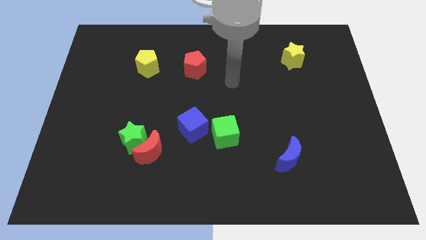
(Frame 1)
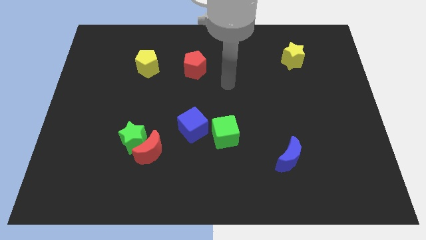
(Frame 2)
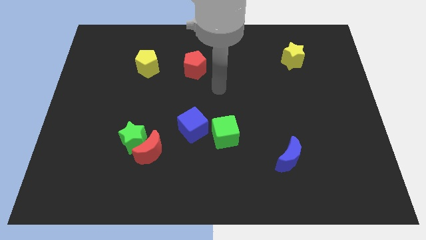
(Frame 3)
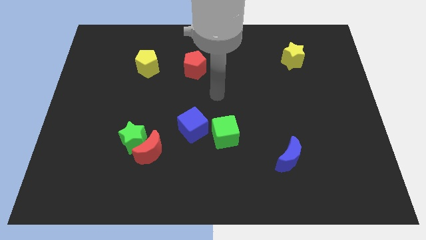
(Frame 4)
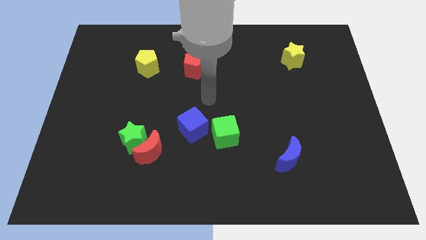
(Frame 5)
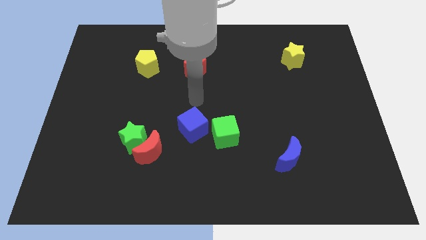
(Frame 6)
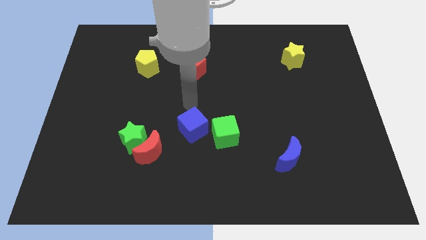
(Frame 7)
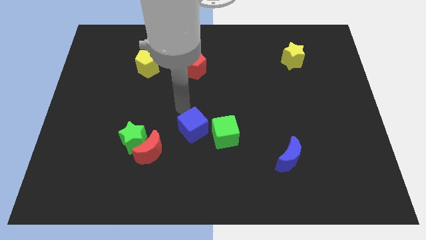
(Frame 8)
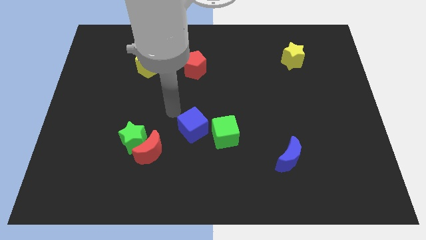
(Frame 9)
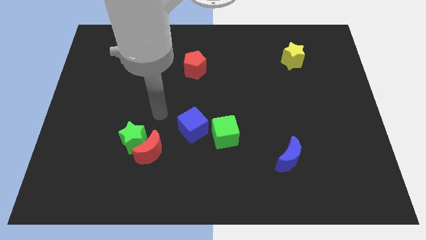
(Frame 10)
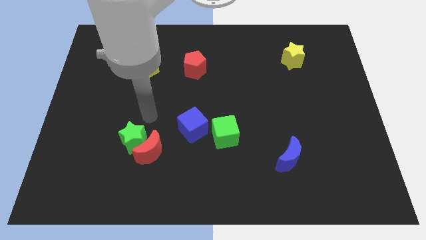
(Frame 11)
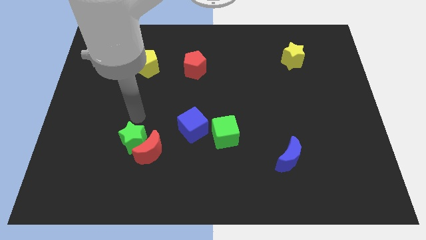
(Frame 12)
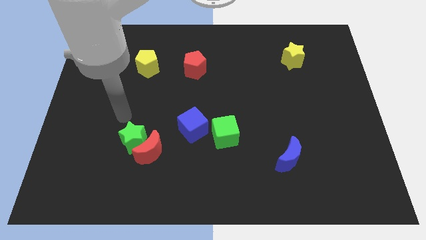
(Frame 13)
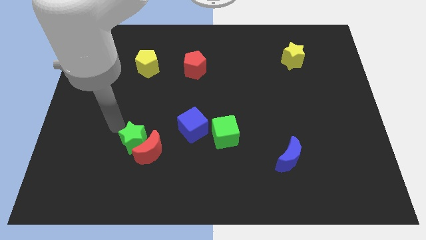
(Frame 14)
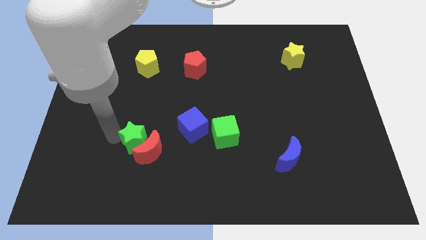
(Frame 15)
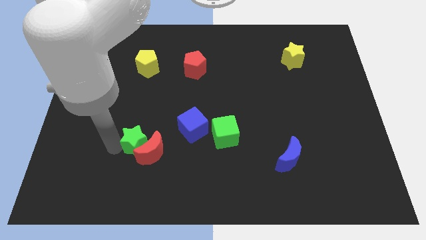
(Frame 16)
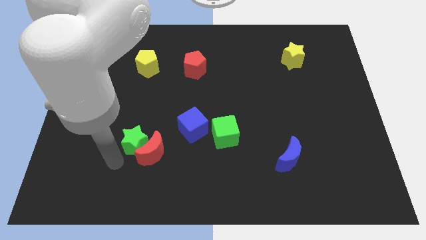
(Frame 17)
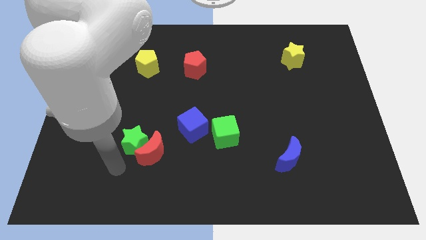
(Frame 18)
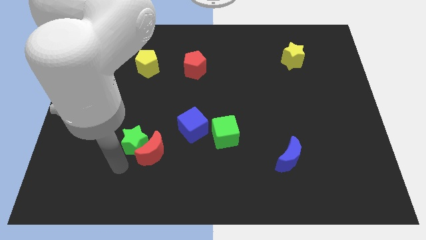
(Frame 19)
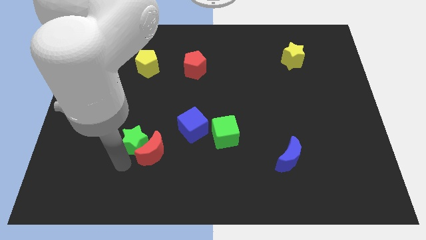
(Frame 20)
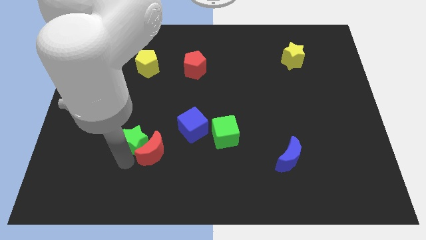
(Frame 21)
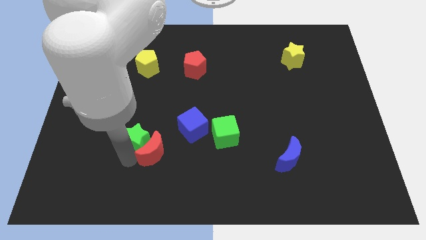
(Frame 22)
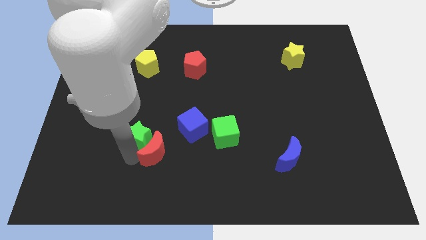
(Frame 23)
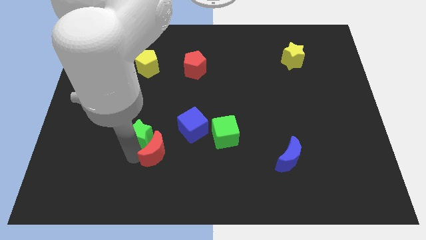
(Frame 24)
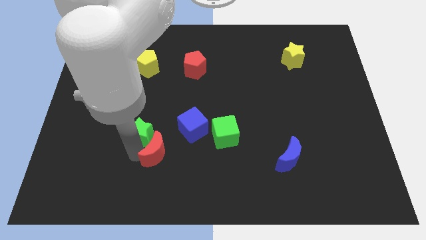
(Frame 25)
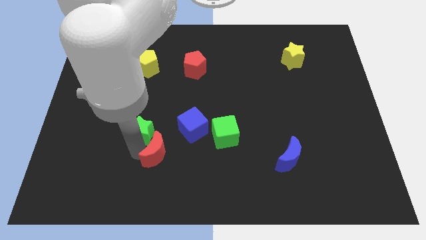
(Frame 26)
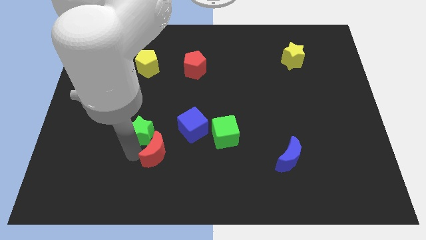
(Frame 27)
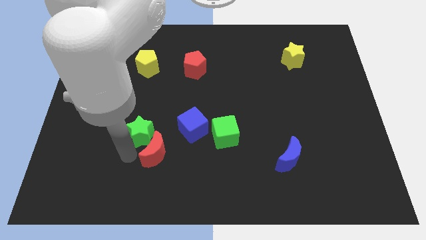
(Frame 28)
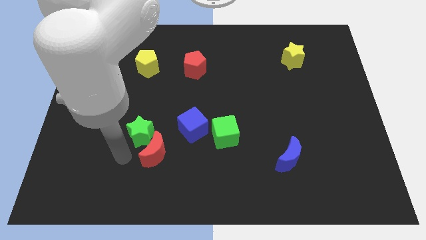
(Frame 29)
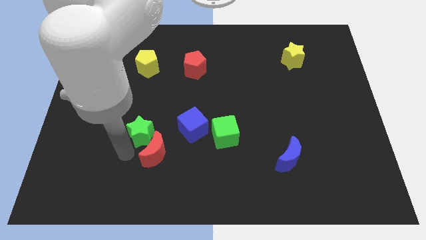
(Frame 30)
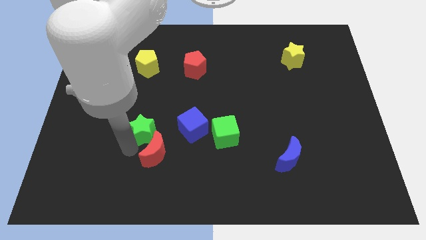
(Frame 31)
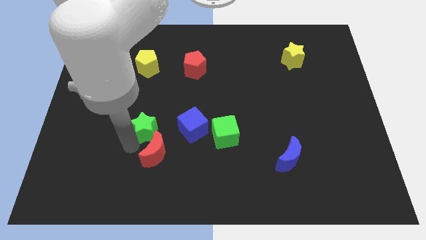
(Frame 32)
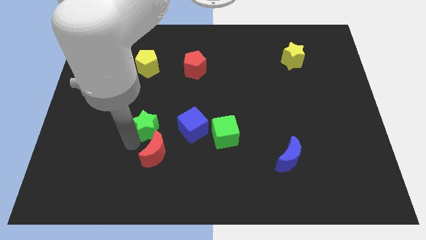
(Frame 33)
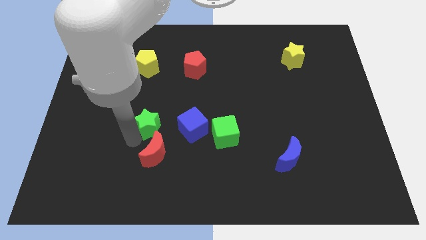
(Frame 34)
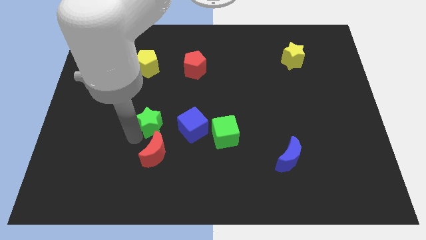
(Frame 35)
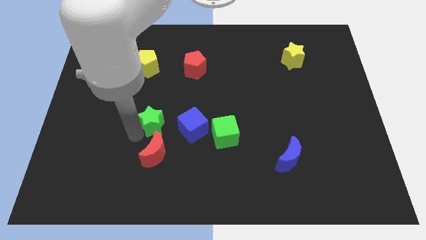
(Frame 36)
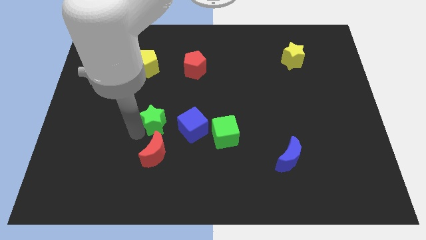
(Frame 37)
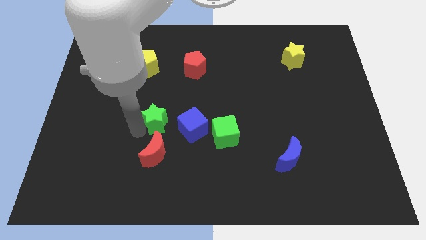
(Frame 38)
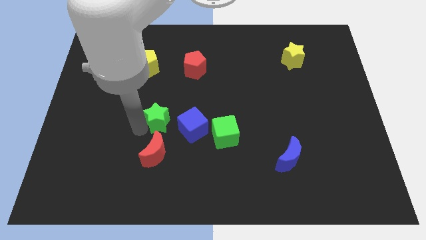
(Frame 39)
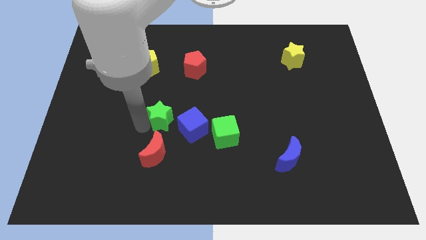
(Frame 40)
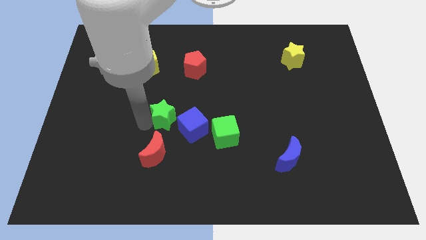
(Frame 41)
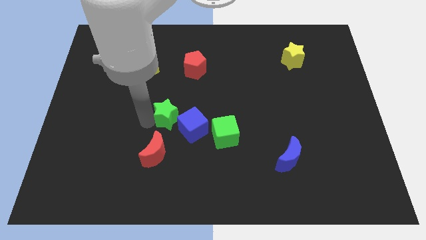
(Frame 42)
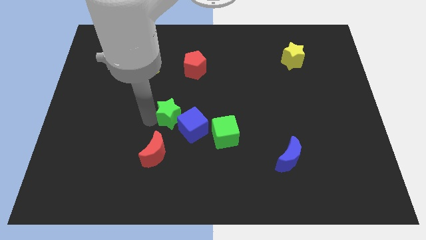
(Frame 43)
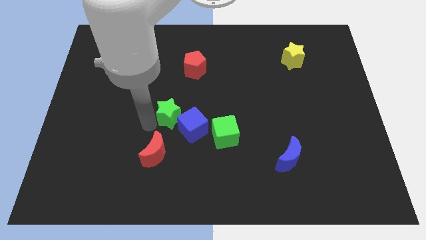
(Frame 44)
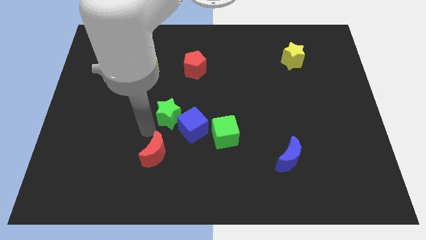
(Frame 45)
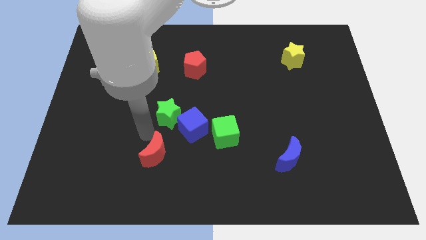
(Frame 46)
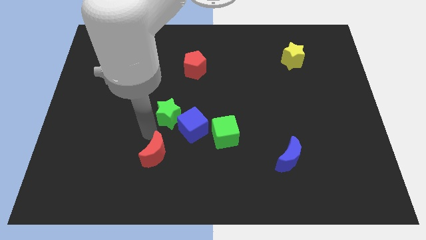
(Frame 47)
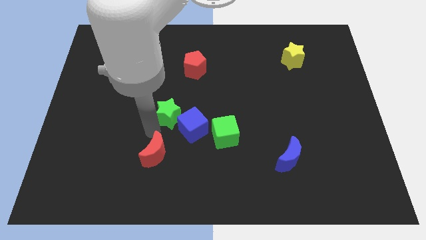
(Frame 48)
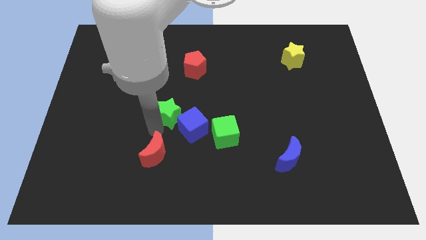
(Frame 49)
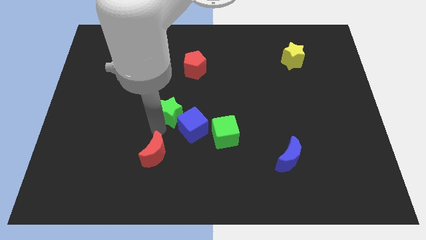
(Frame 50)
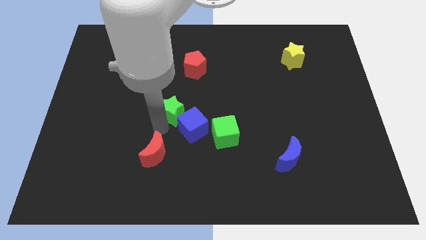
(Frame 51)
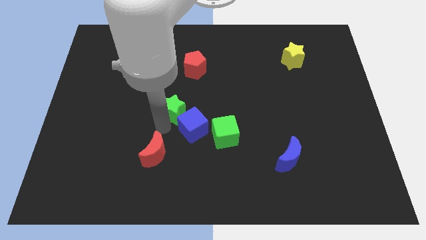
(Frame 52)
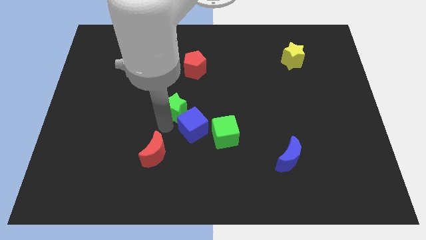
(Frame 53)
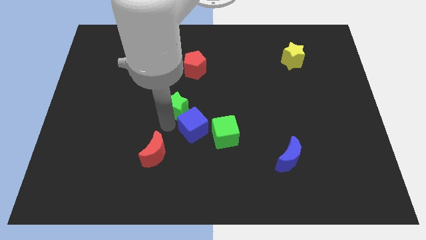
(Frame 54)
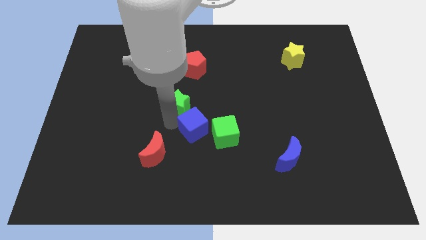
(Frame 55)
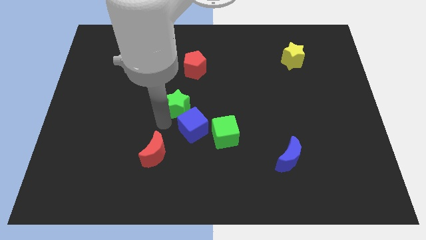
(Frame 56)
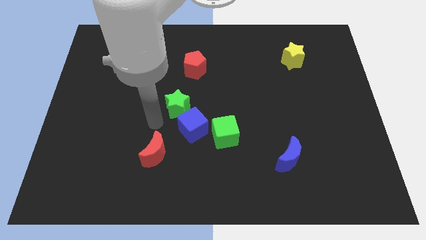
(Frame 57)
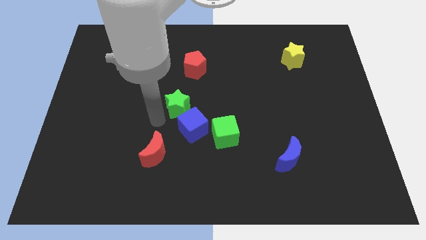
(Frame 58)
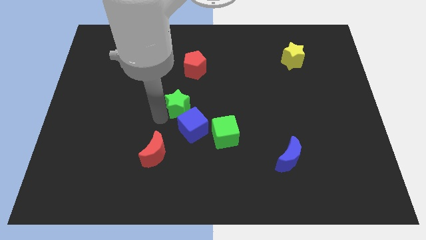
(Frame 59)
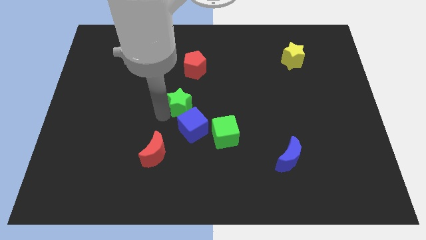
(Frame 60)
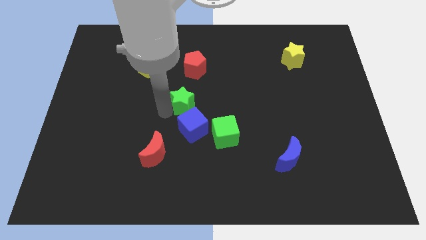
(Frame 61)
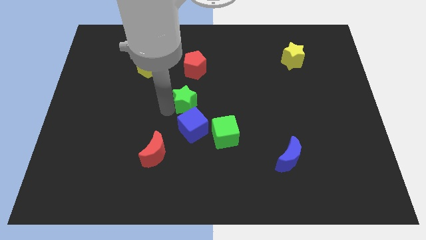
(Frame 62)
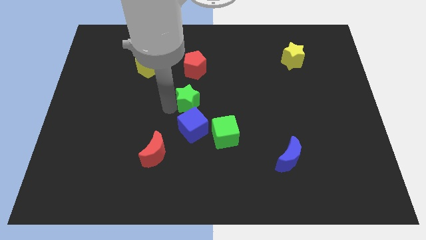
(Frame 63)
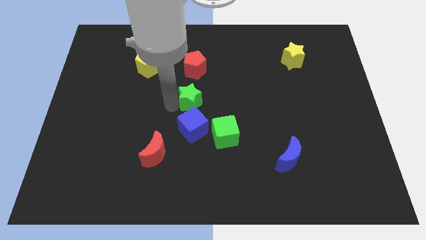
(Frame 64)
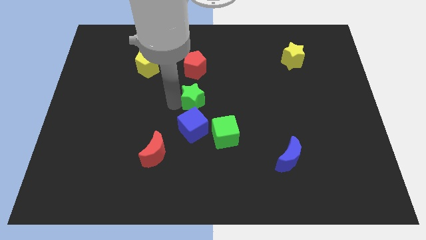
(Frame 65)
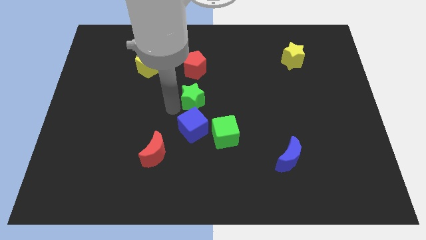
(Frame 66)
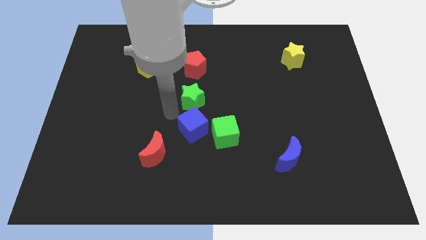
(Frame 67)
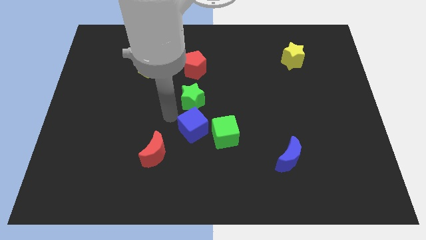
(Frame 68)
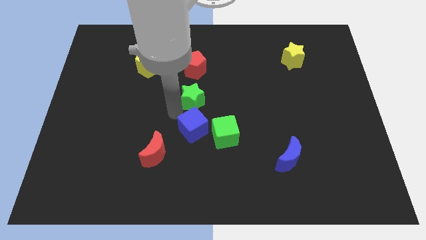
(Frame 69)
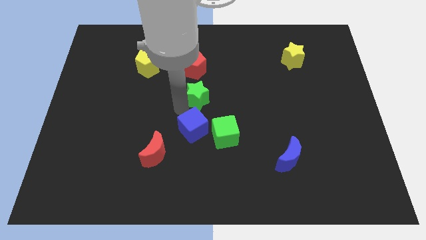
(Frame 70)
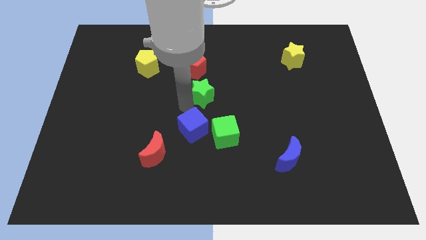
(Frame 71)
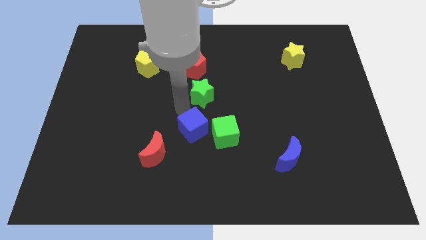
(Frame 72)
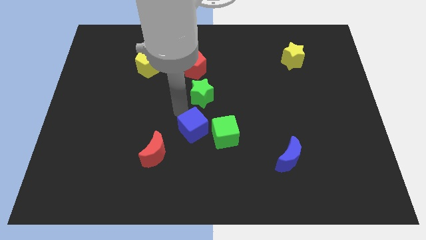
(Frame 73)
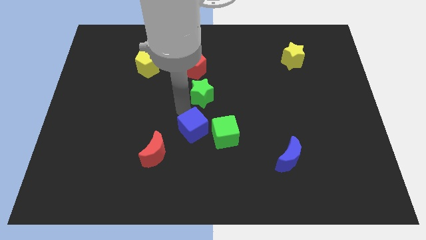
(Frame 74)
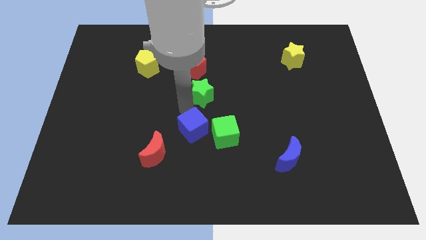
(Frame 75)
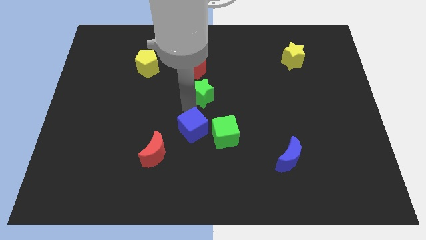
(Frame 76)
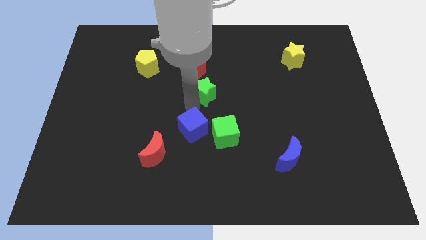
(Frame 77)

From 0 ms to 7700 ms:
push the green star upwards and right diagonally

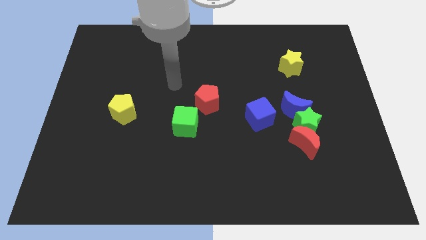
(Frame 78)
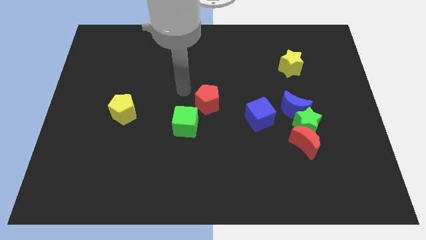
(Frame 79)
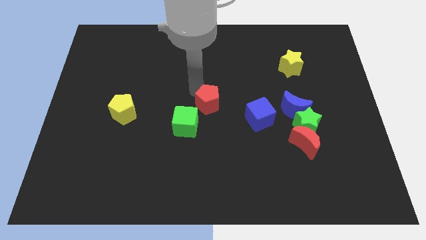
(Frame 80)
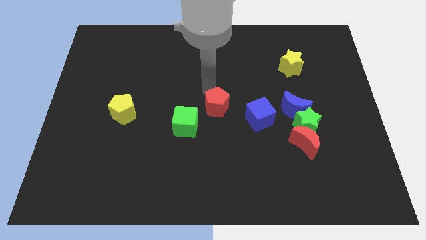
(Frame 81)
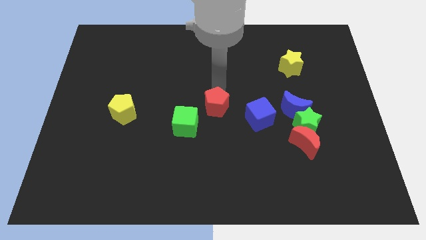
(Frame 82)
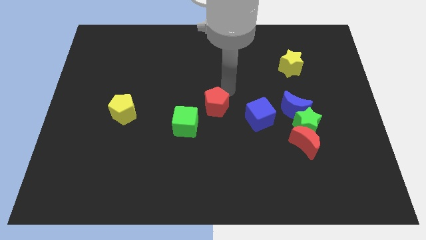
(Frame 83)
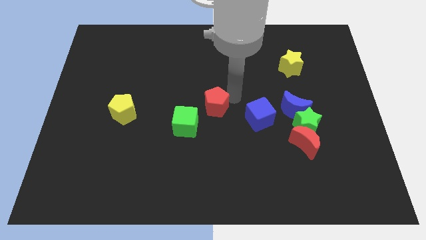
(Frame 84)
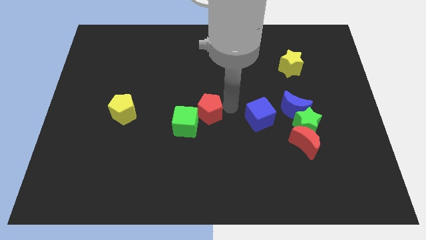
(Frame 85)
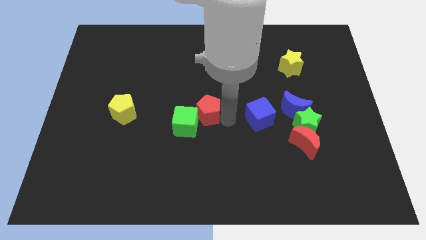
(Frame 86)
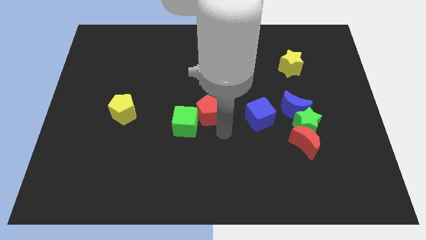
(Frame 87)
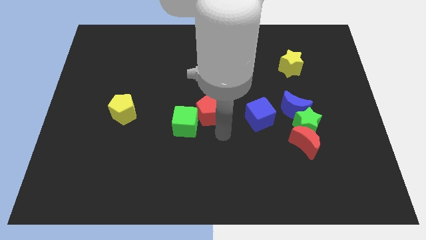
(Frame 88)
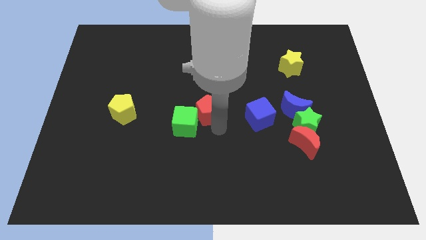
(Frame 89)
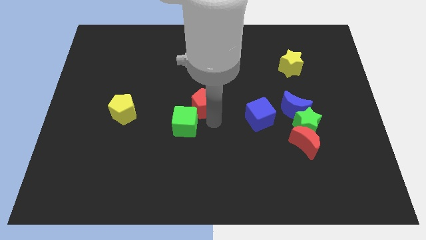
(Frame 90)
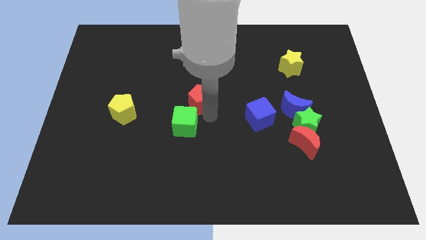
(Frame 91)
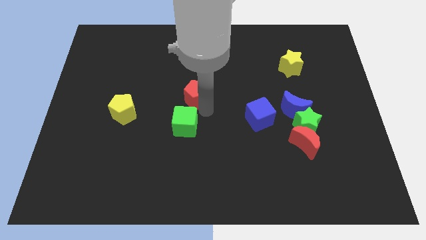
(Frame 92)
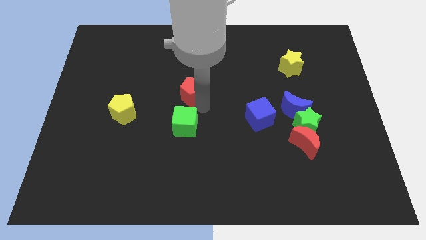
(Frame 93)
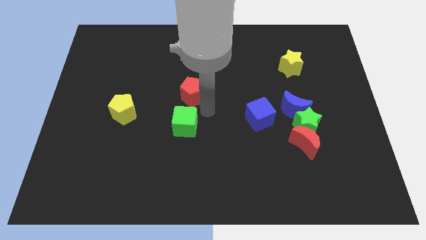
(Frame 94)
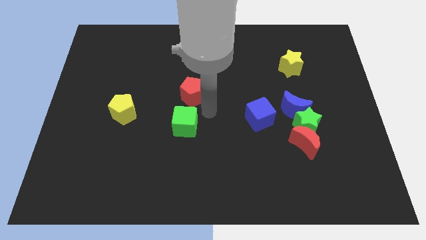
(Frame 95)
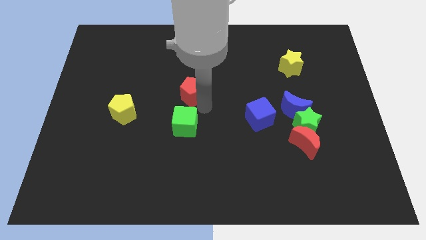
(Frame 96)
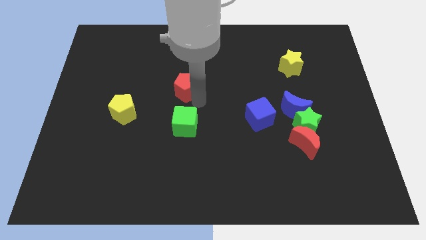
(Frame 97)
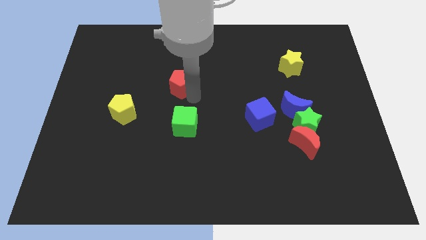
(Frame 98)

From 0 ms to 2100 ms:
move the red pentagon diagonally up and to the left a little
